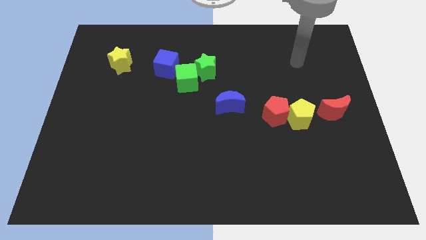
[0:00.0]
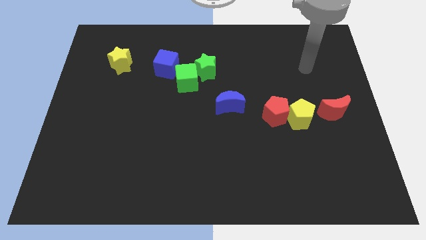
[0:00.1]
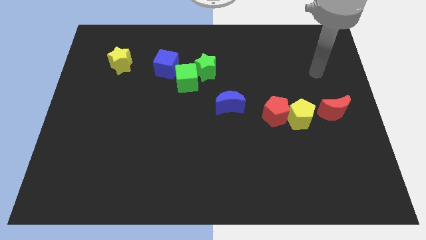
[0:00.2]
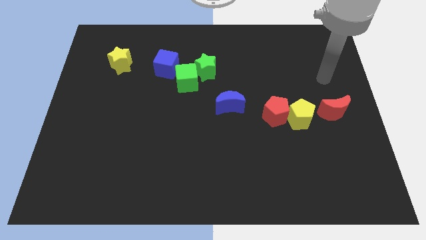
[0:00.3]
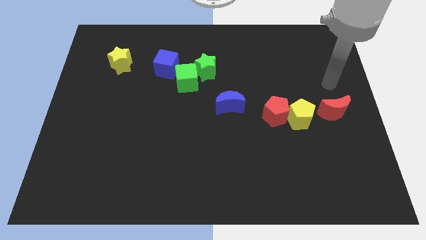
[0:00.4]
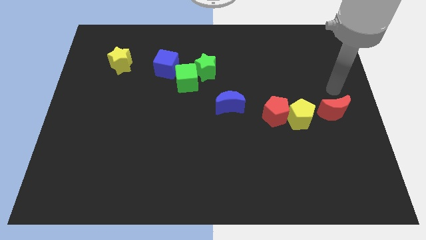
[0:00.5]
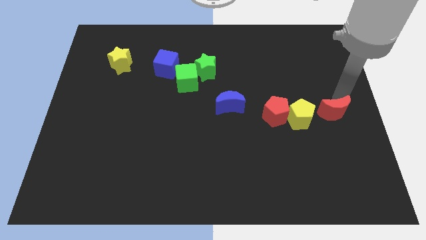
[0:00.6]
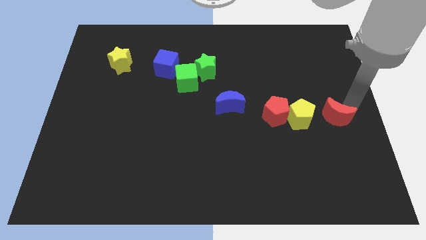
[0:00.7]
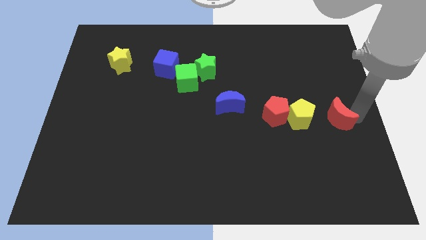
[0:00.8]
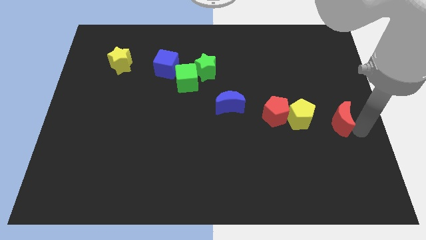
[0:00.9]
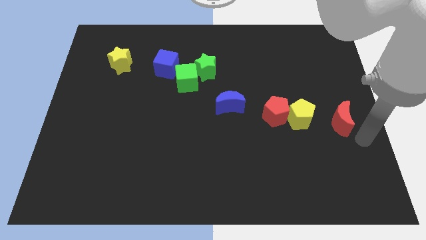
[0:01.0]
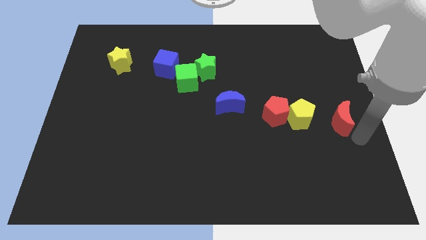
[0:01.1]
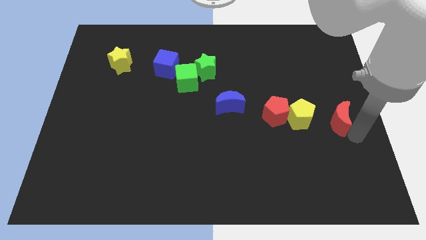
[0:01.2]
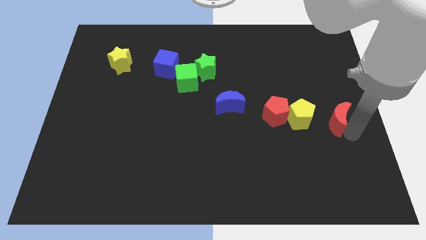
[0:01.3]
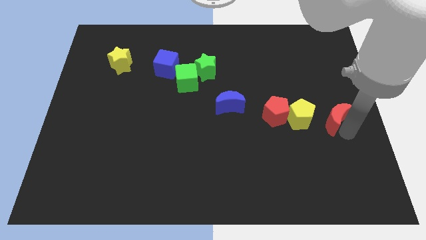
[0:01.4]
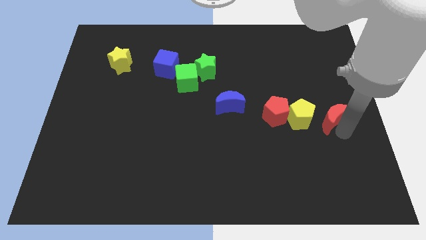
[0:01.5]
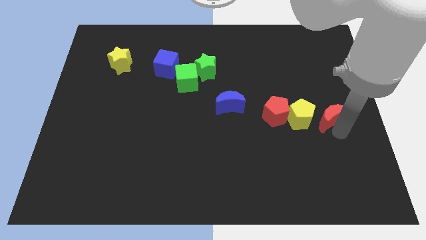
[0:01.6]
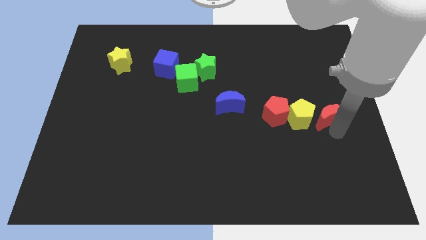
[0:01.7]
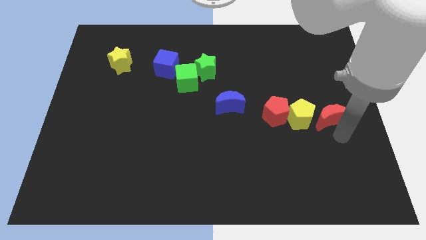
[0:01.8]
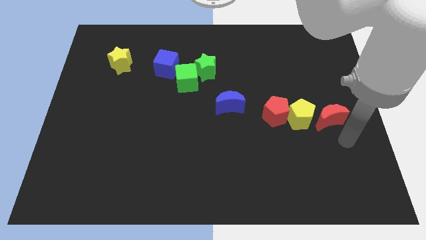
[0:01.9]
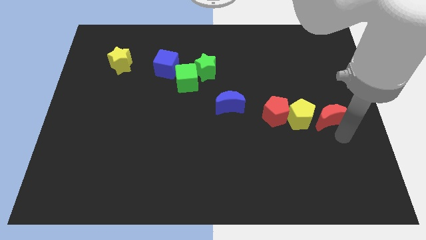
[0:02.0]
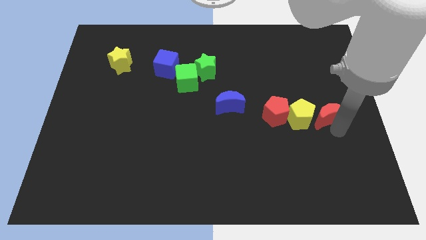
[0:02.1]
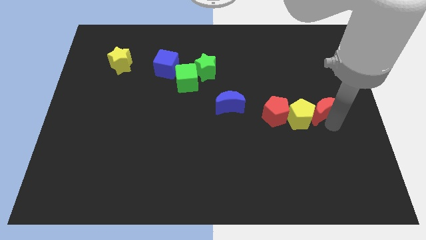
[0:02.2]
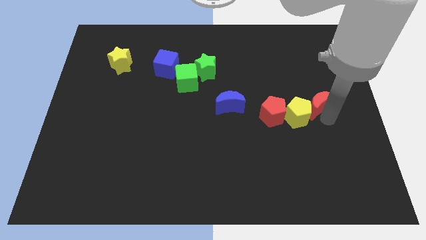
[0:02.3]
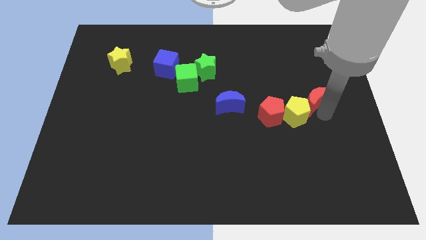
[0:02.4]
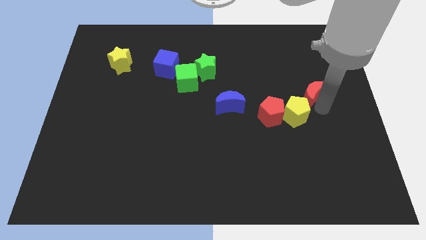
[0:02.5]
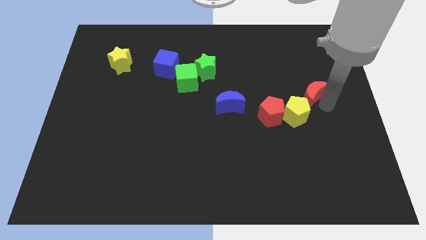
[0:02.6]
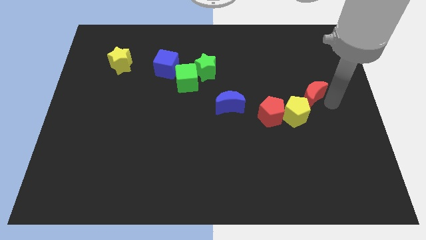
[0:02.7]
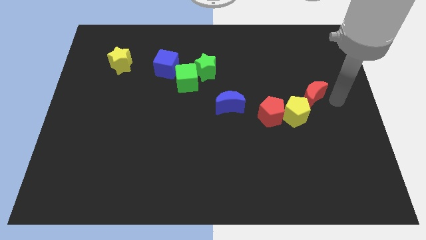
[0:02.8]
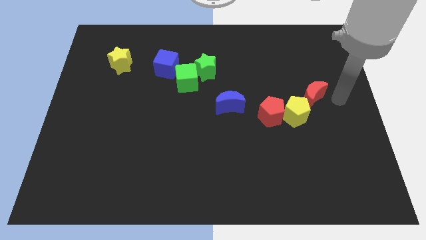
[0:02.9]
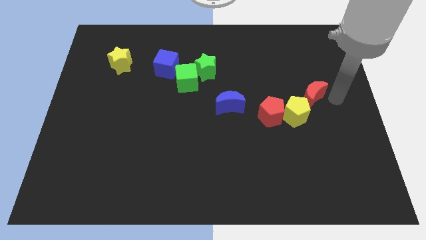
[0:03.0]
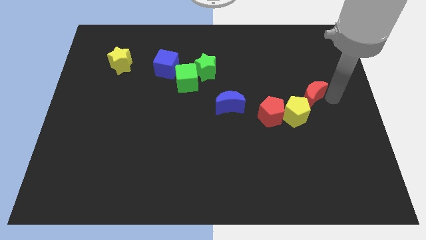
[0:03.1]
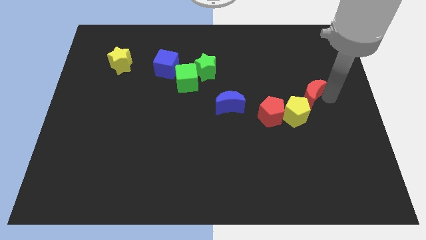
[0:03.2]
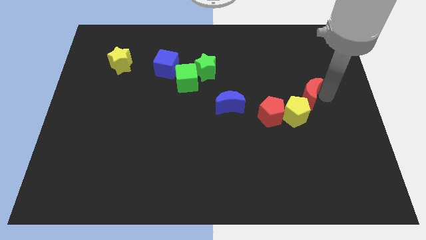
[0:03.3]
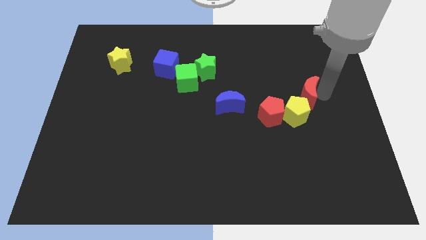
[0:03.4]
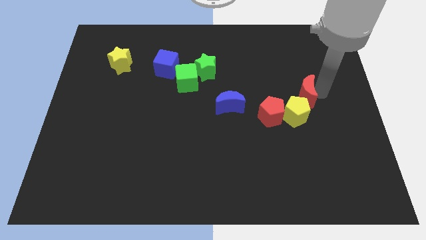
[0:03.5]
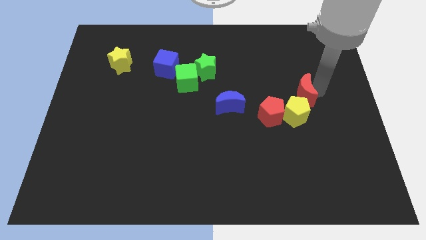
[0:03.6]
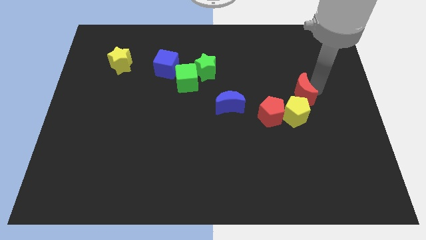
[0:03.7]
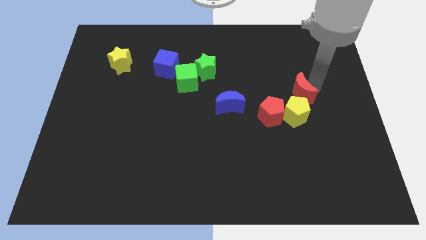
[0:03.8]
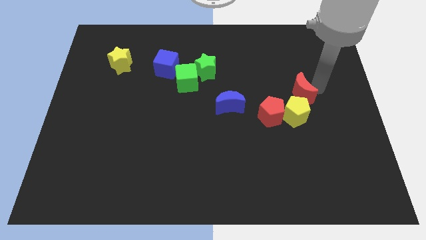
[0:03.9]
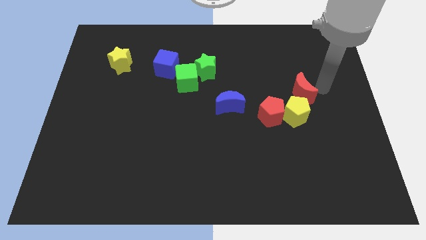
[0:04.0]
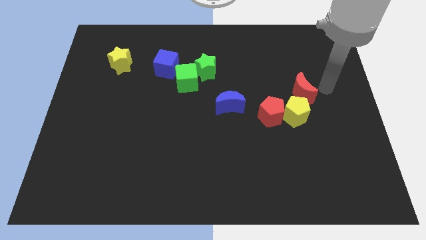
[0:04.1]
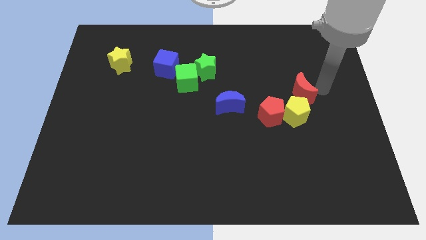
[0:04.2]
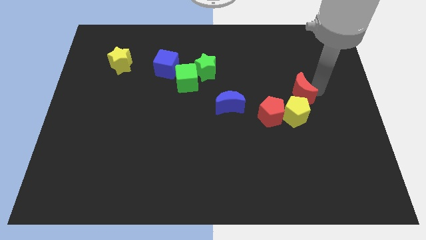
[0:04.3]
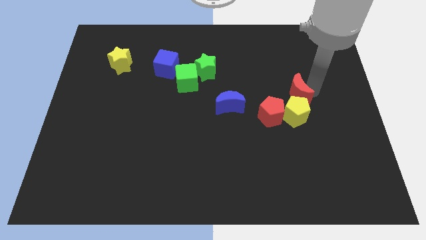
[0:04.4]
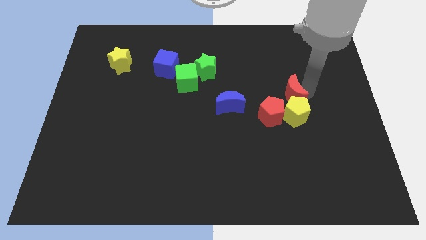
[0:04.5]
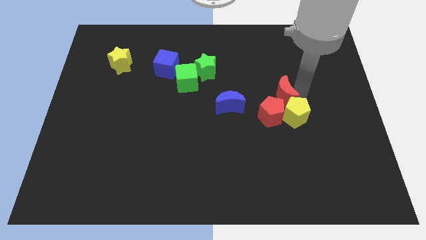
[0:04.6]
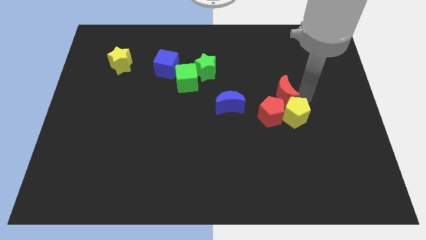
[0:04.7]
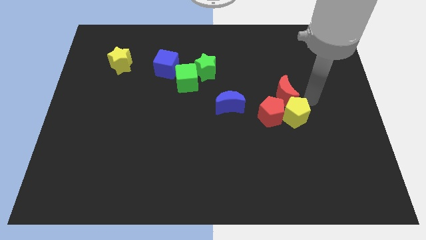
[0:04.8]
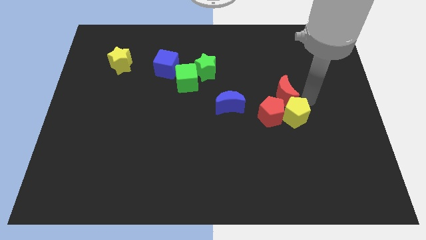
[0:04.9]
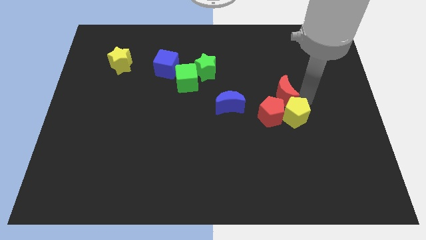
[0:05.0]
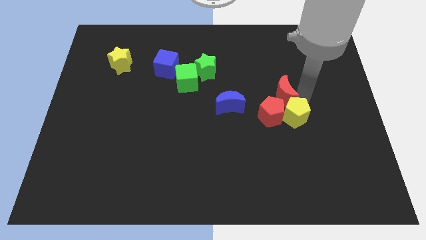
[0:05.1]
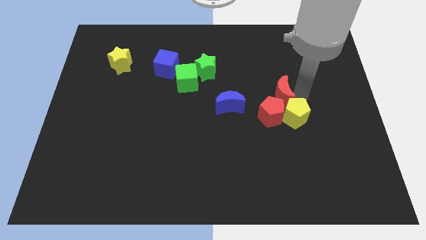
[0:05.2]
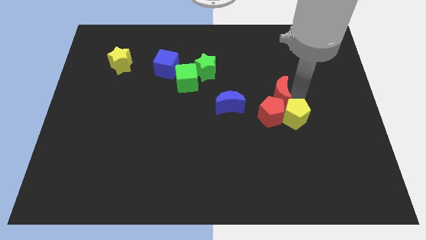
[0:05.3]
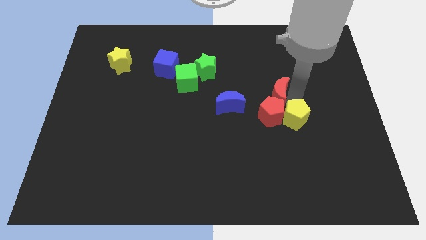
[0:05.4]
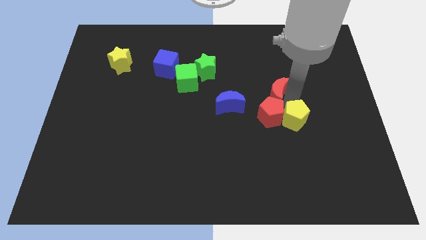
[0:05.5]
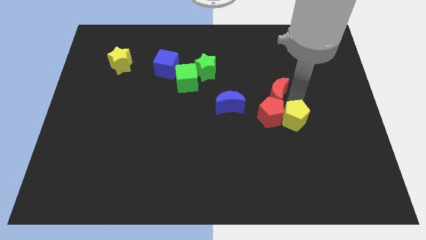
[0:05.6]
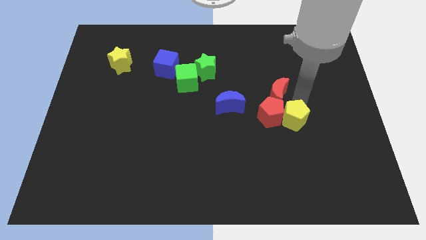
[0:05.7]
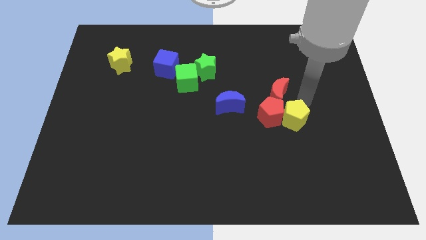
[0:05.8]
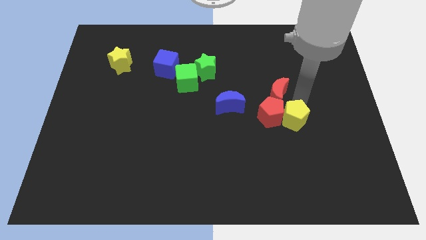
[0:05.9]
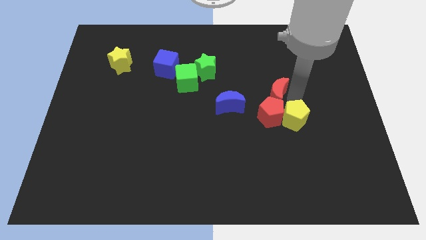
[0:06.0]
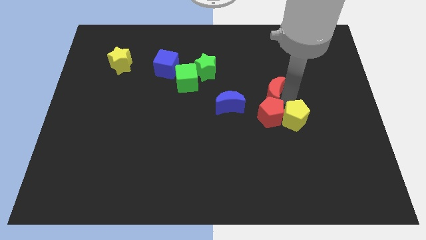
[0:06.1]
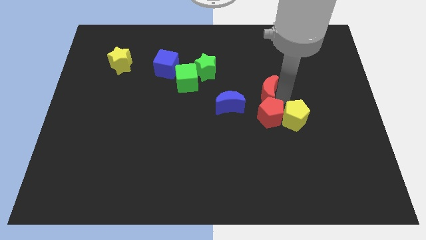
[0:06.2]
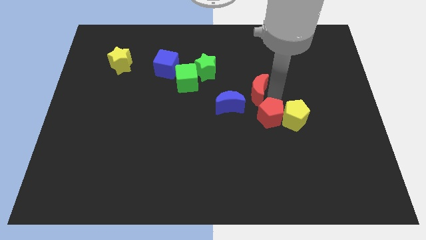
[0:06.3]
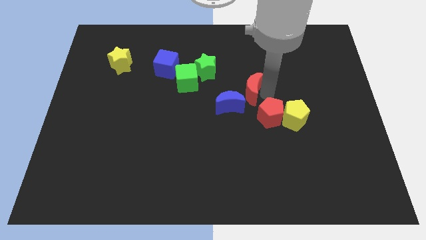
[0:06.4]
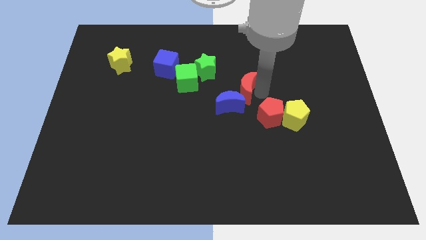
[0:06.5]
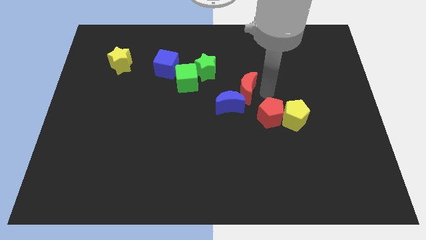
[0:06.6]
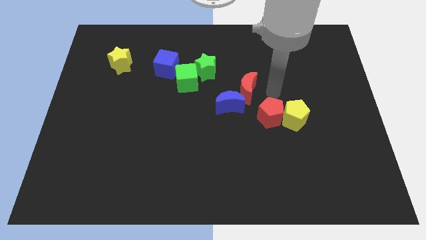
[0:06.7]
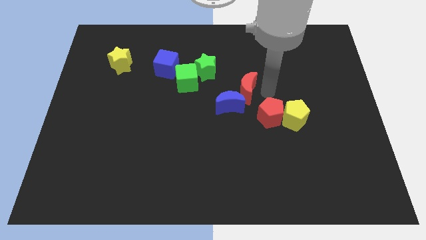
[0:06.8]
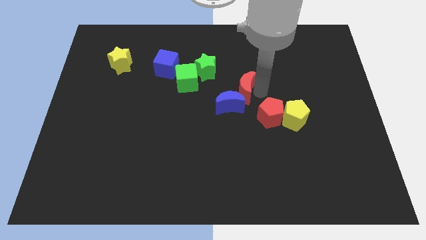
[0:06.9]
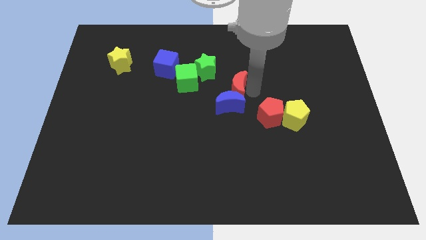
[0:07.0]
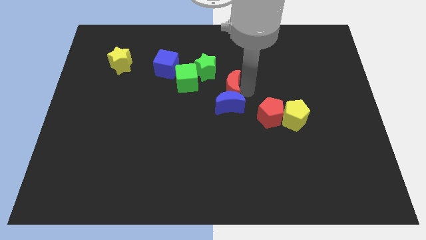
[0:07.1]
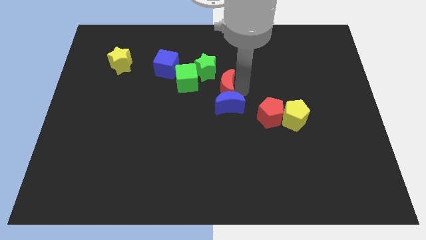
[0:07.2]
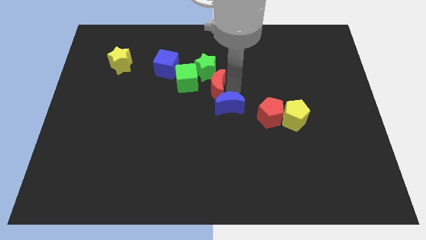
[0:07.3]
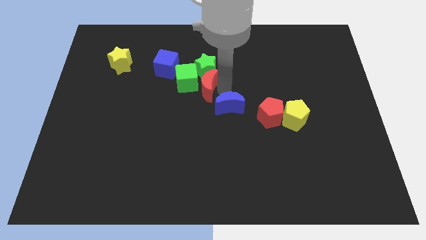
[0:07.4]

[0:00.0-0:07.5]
move the red moon close to the green cube
